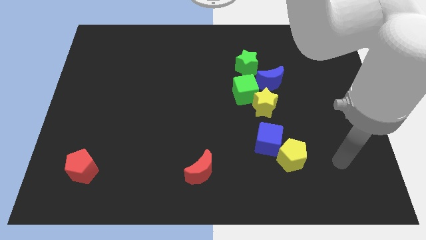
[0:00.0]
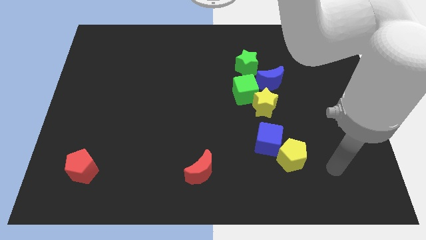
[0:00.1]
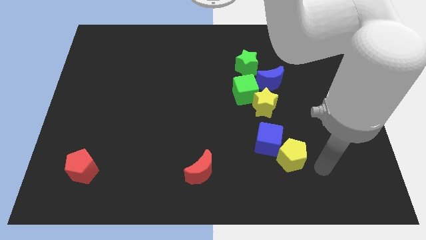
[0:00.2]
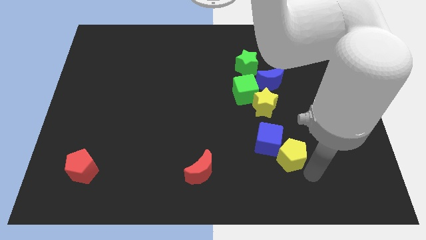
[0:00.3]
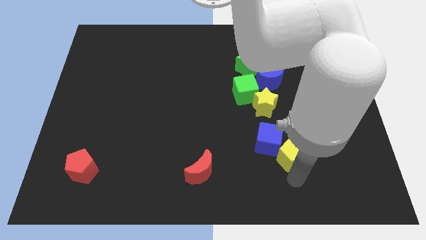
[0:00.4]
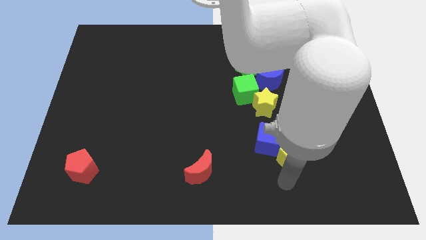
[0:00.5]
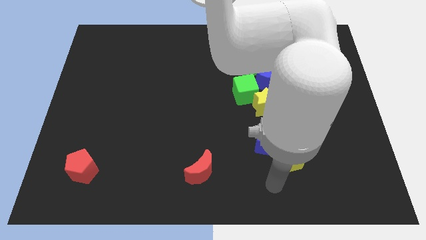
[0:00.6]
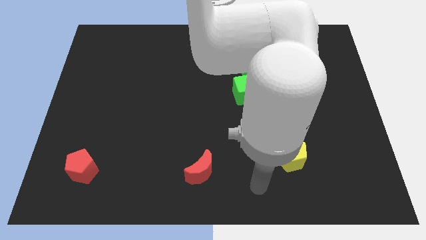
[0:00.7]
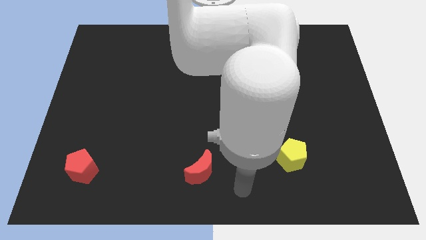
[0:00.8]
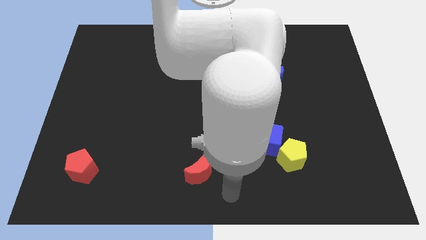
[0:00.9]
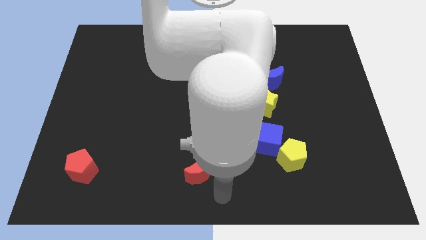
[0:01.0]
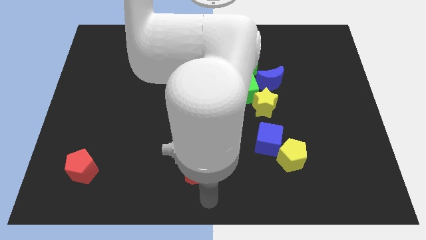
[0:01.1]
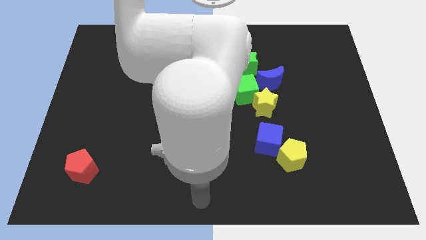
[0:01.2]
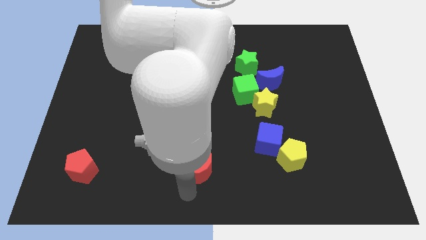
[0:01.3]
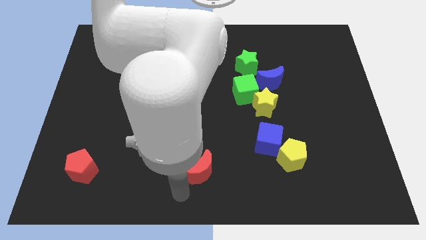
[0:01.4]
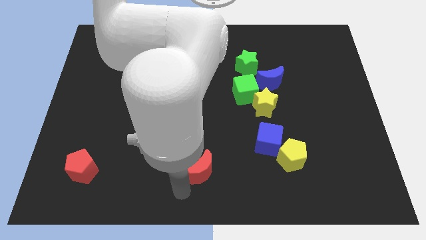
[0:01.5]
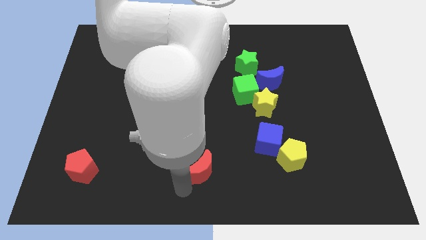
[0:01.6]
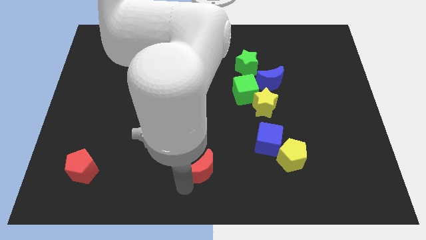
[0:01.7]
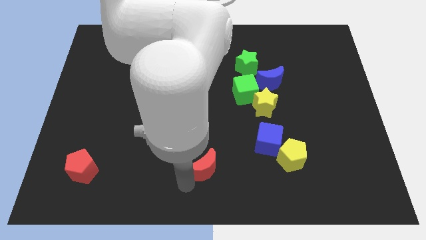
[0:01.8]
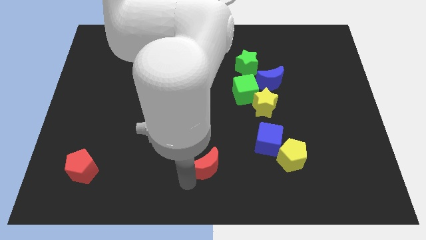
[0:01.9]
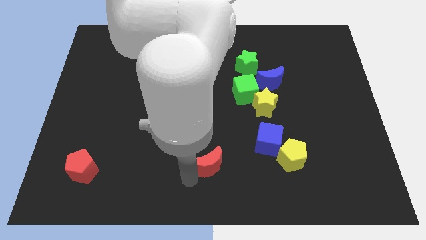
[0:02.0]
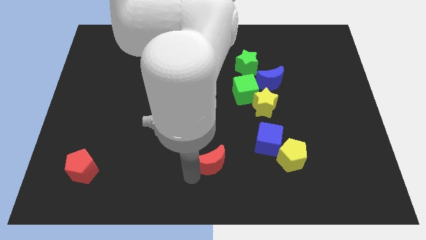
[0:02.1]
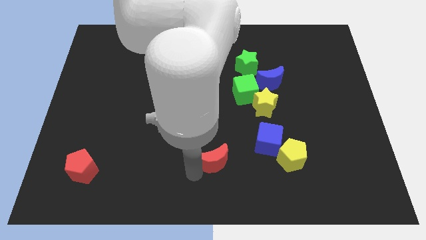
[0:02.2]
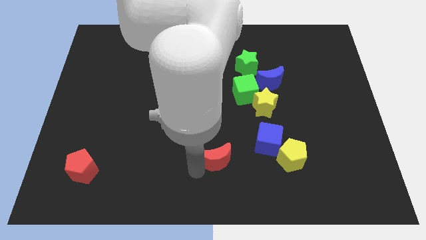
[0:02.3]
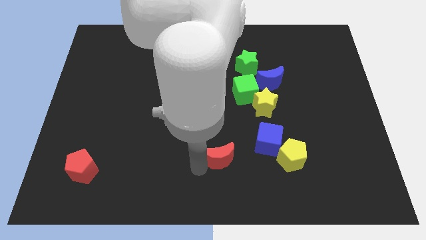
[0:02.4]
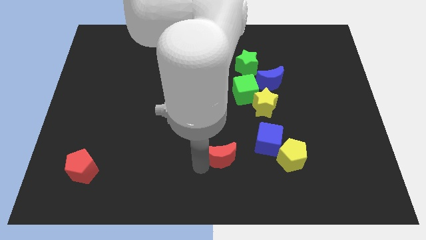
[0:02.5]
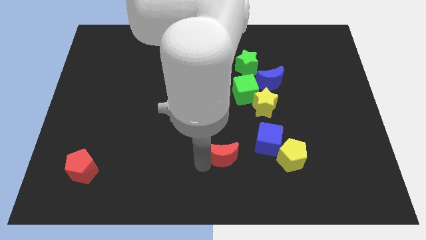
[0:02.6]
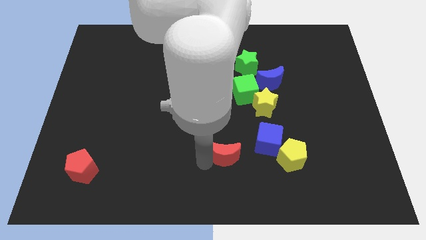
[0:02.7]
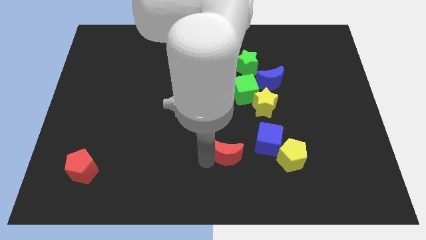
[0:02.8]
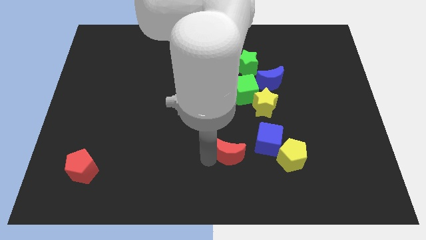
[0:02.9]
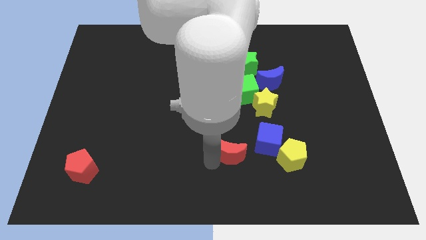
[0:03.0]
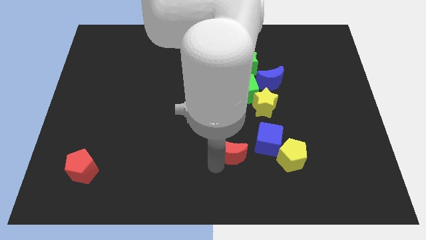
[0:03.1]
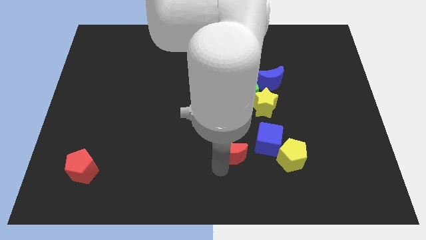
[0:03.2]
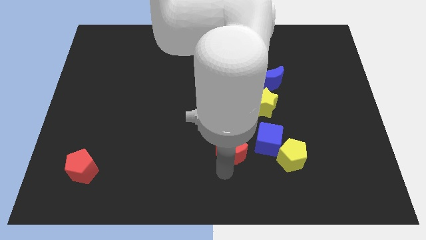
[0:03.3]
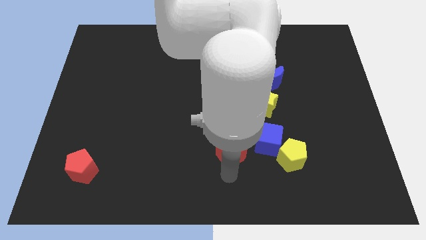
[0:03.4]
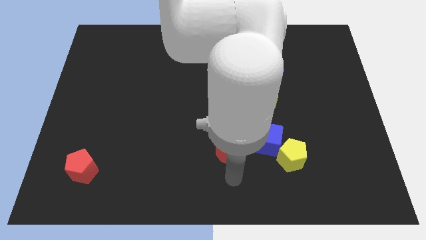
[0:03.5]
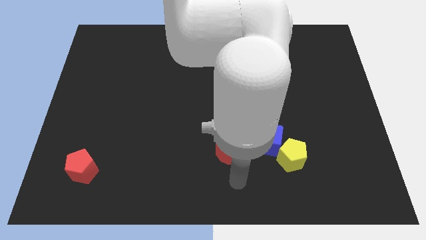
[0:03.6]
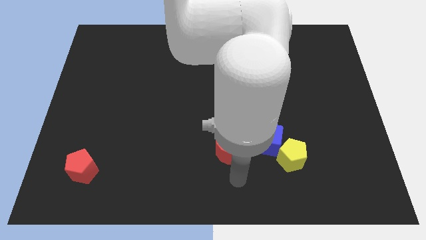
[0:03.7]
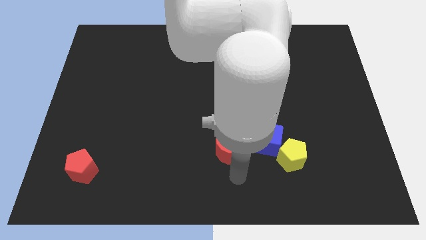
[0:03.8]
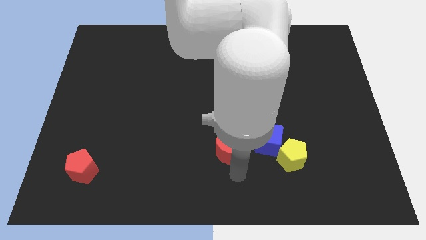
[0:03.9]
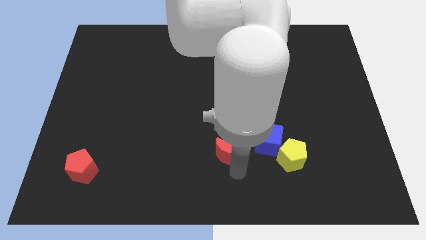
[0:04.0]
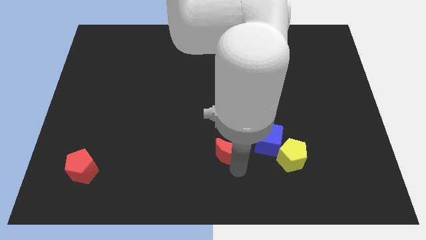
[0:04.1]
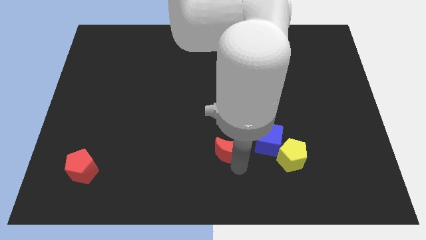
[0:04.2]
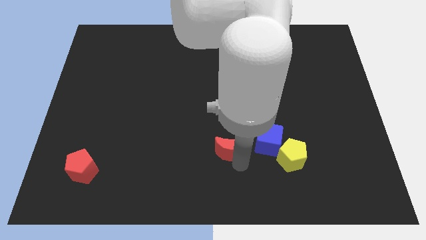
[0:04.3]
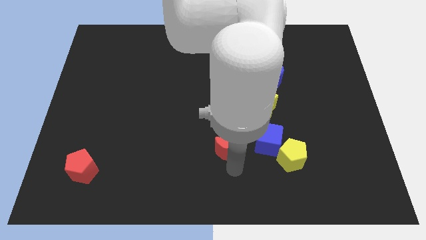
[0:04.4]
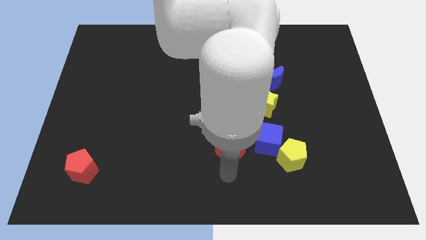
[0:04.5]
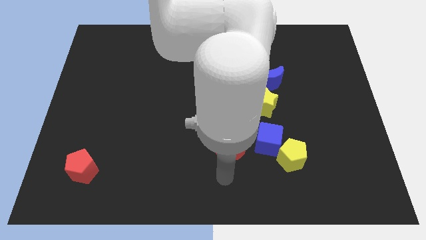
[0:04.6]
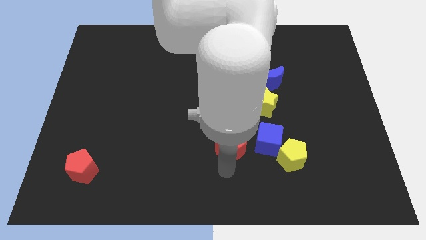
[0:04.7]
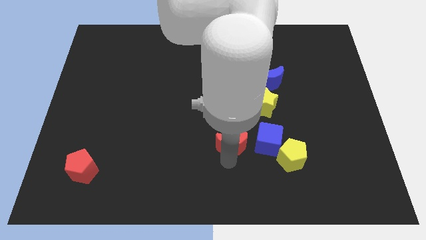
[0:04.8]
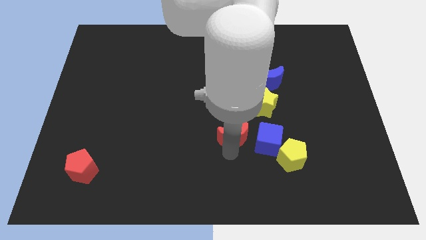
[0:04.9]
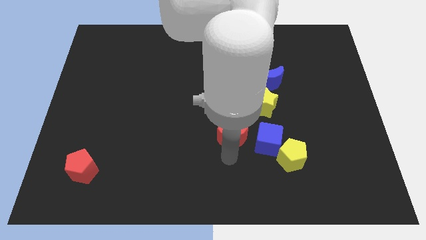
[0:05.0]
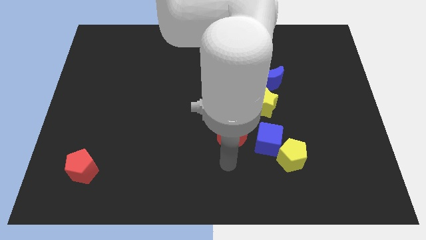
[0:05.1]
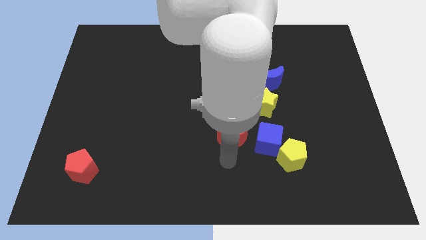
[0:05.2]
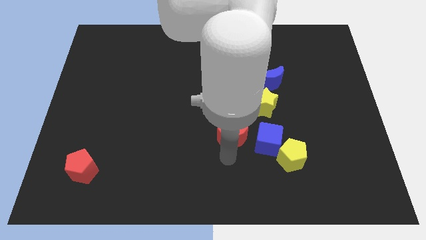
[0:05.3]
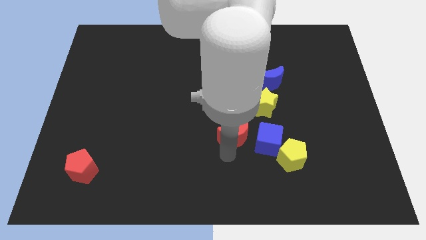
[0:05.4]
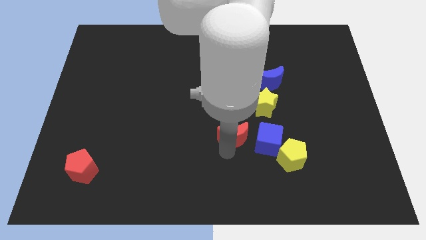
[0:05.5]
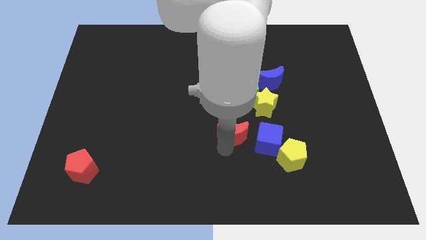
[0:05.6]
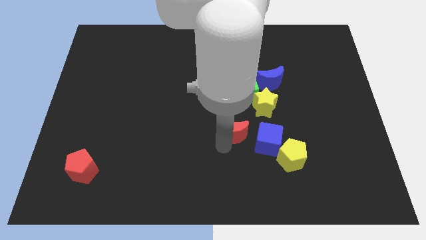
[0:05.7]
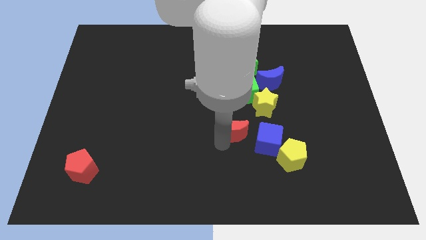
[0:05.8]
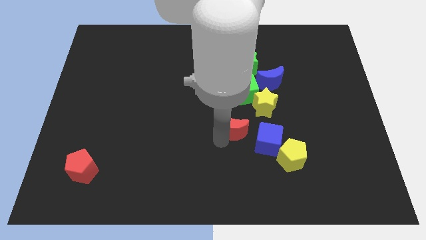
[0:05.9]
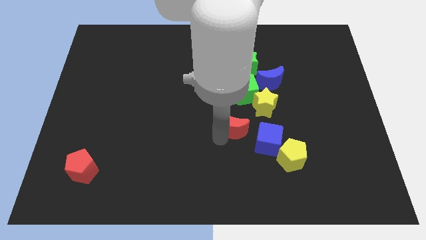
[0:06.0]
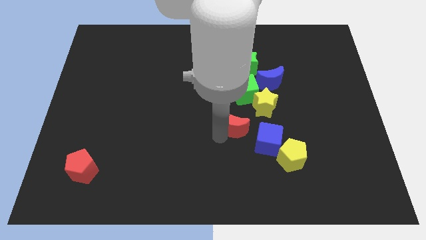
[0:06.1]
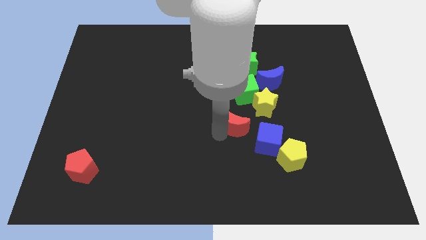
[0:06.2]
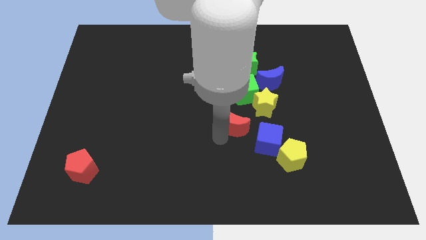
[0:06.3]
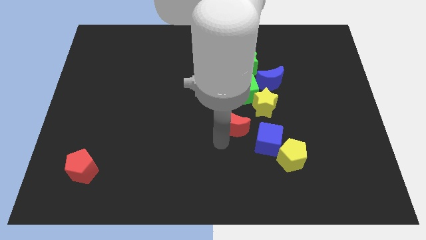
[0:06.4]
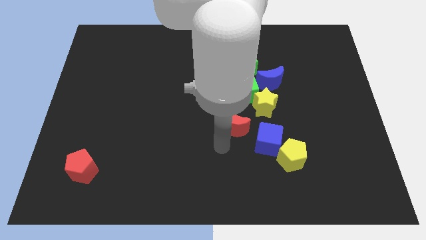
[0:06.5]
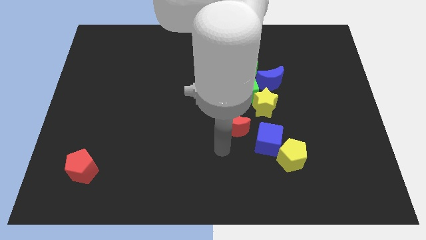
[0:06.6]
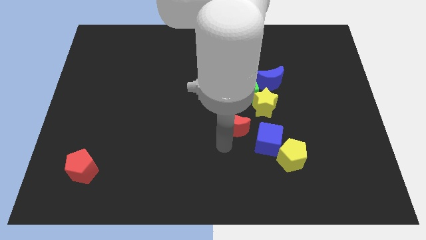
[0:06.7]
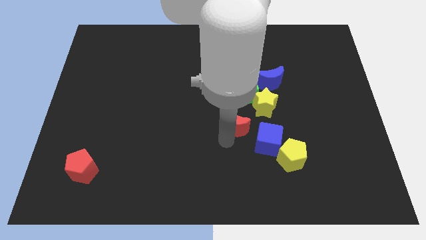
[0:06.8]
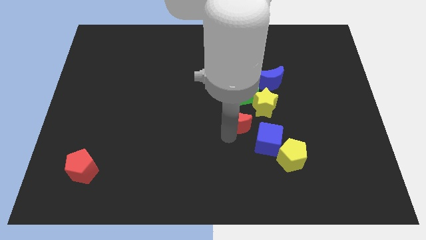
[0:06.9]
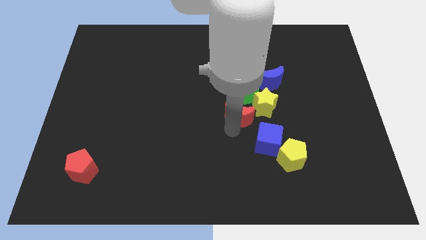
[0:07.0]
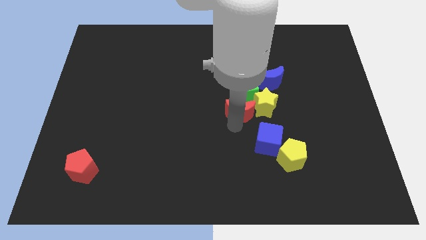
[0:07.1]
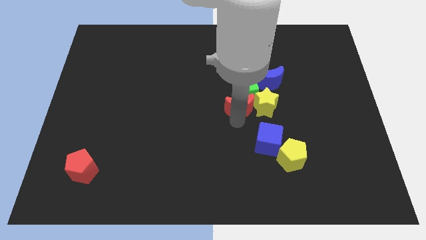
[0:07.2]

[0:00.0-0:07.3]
move the red moon towards the green cube

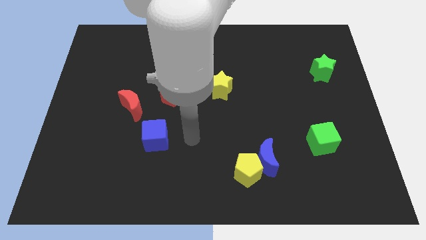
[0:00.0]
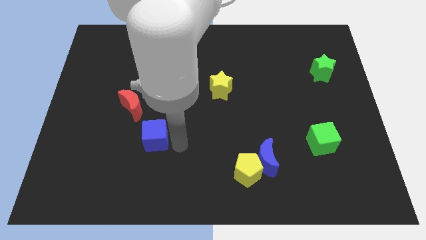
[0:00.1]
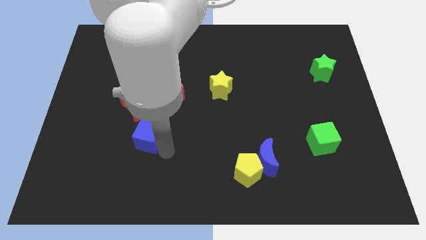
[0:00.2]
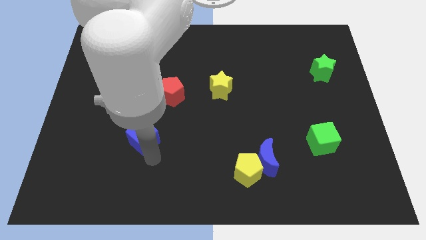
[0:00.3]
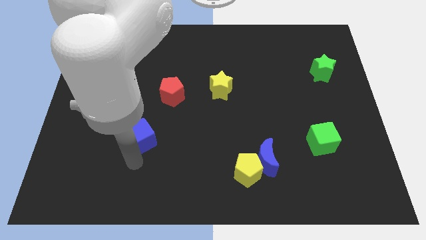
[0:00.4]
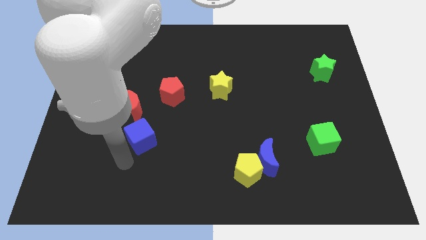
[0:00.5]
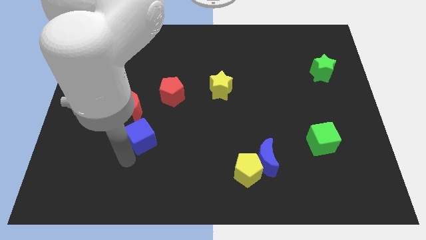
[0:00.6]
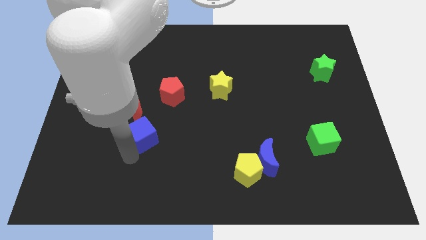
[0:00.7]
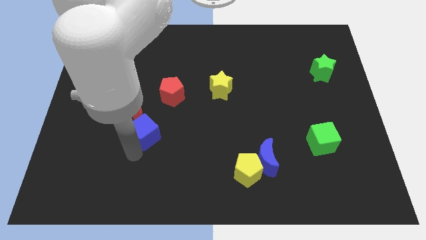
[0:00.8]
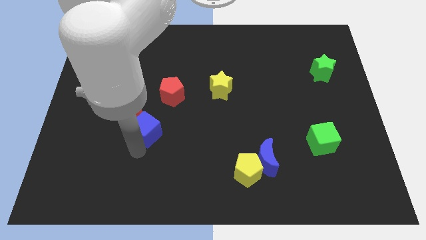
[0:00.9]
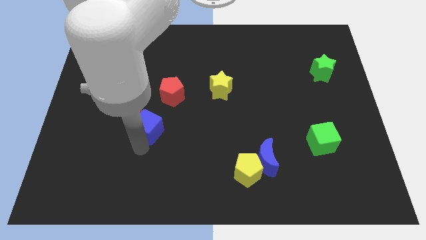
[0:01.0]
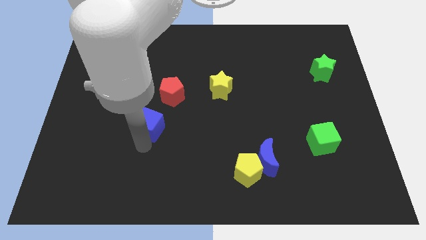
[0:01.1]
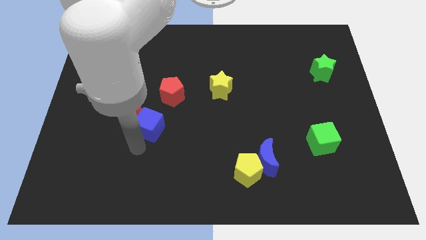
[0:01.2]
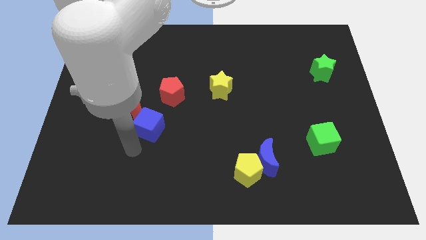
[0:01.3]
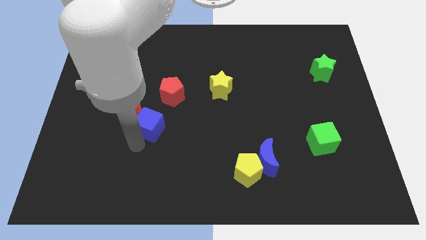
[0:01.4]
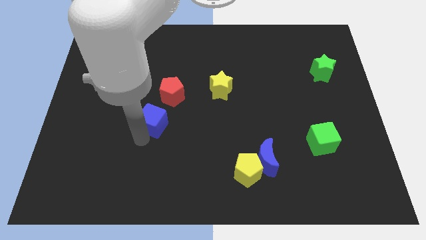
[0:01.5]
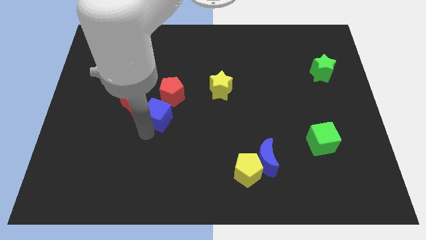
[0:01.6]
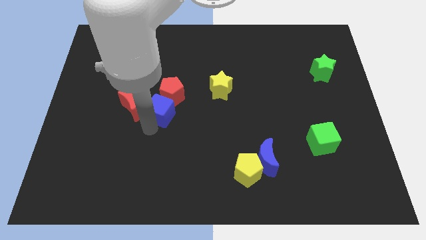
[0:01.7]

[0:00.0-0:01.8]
move the blue cube towards the red pentagon
